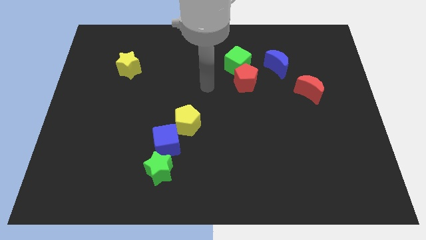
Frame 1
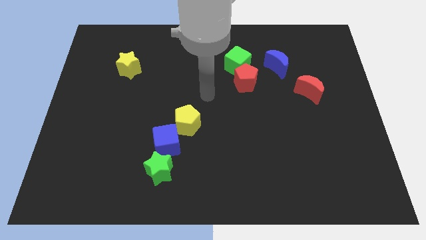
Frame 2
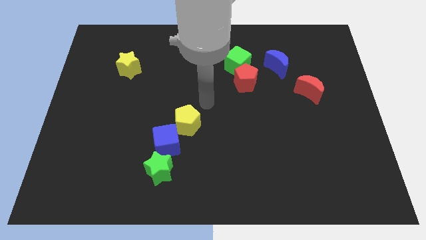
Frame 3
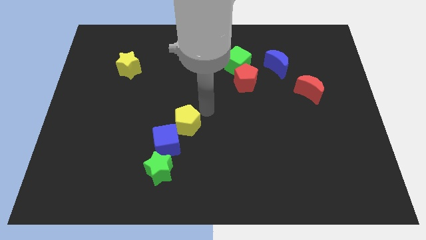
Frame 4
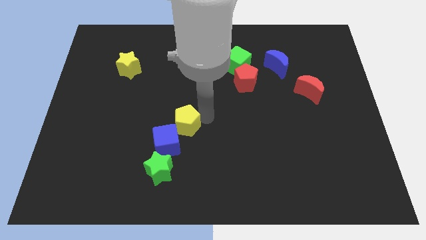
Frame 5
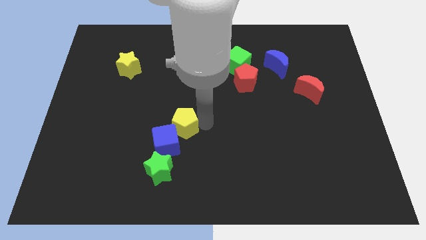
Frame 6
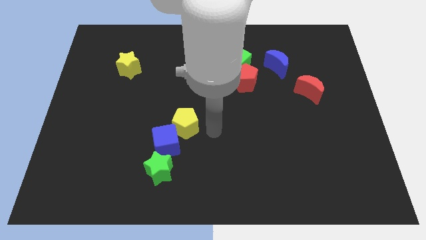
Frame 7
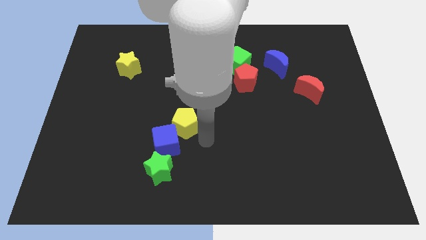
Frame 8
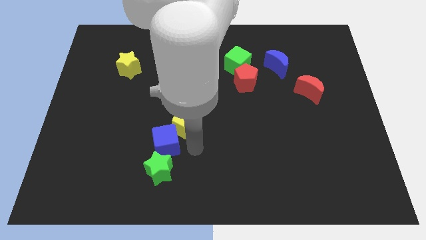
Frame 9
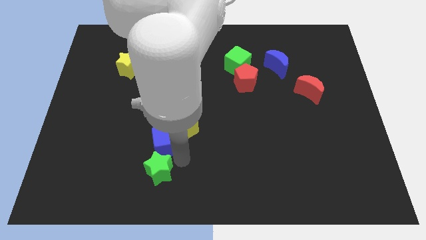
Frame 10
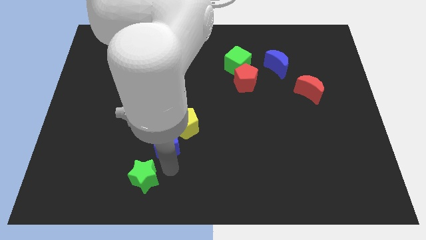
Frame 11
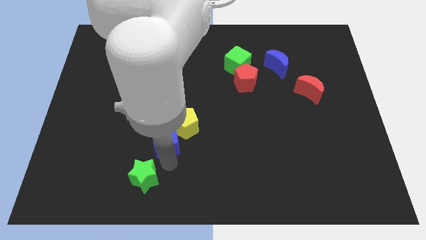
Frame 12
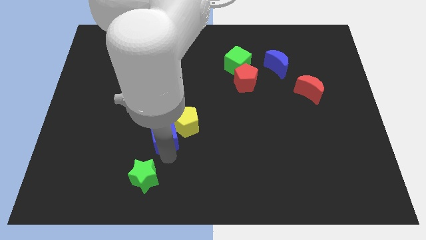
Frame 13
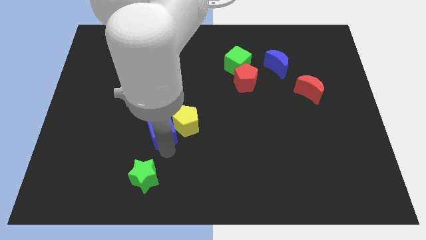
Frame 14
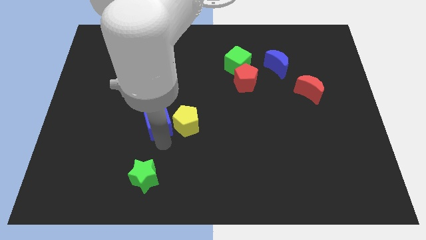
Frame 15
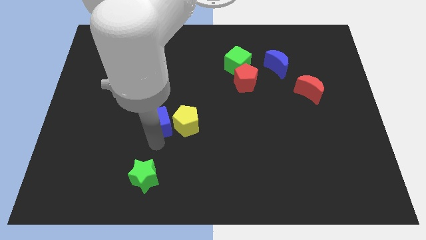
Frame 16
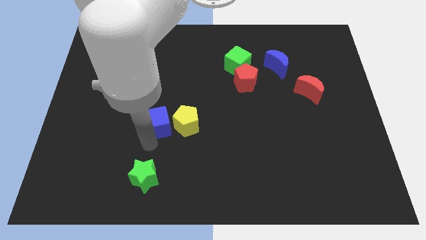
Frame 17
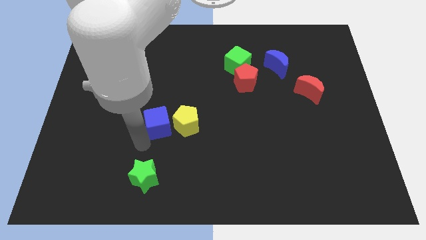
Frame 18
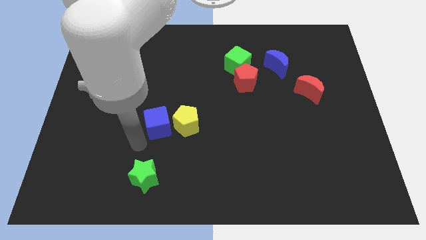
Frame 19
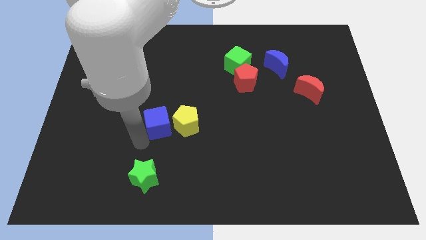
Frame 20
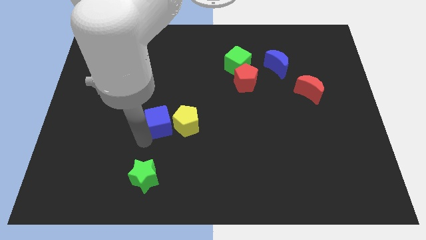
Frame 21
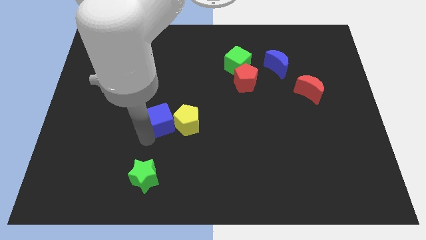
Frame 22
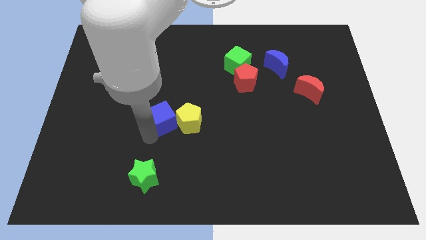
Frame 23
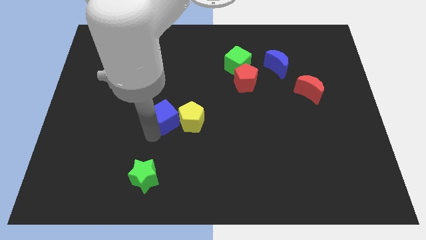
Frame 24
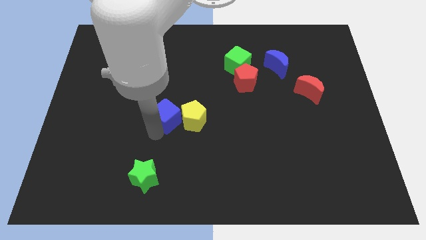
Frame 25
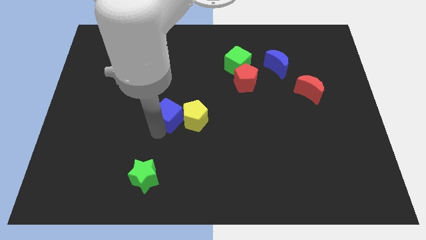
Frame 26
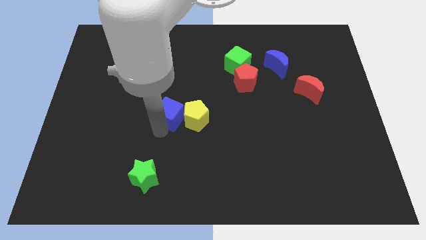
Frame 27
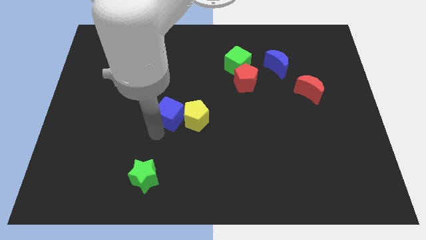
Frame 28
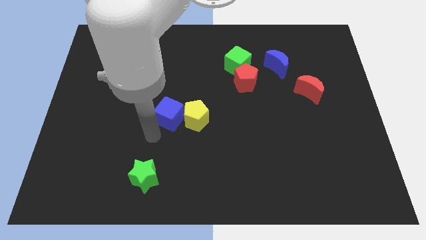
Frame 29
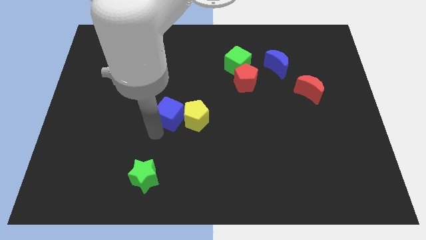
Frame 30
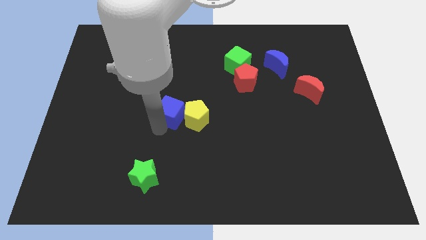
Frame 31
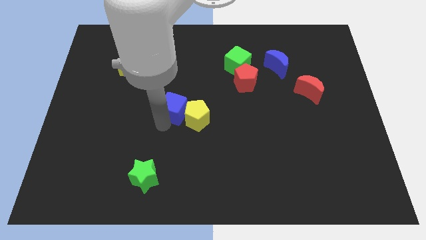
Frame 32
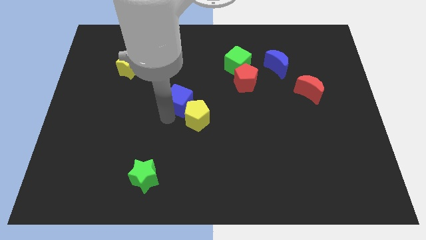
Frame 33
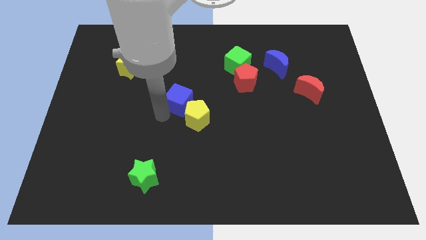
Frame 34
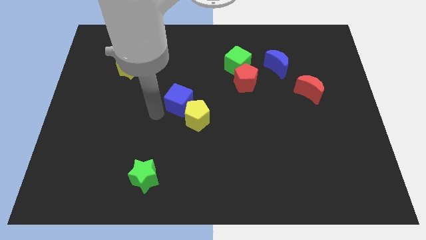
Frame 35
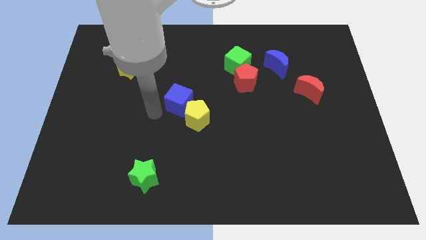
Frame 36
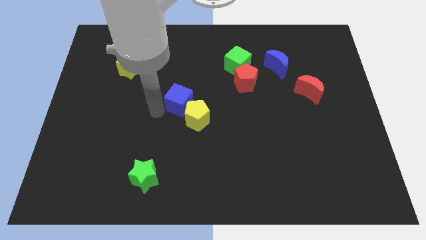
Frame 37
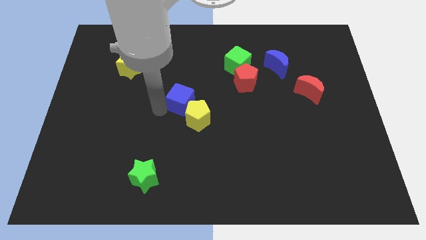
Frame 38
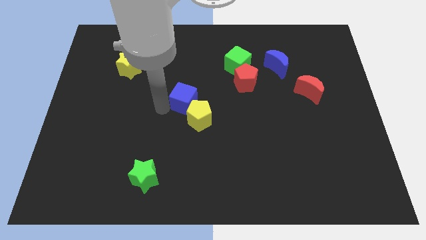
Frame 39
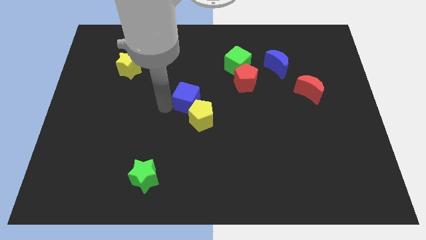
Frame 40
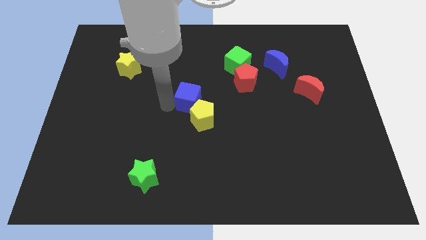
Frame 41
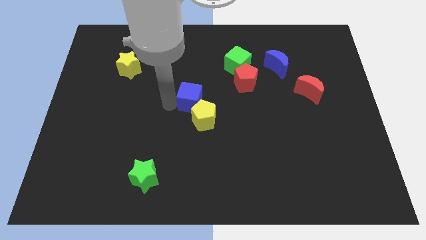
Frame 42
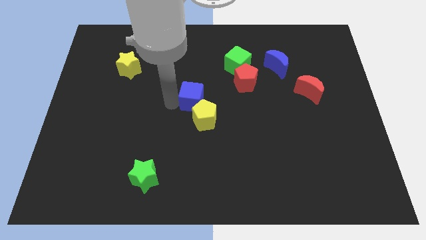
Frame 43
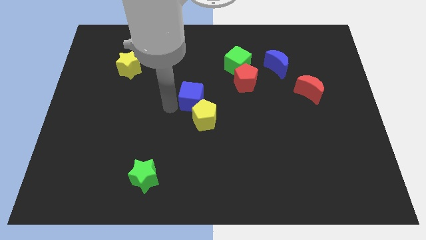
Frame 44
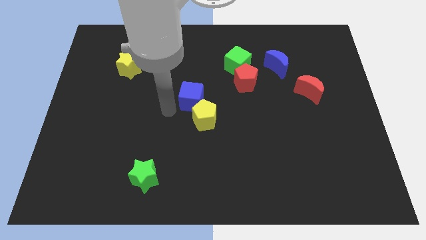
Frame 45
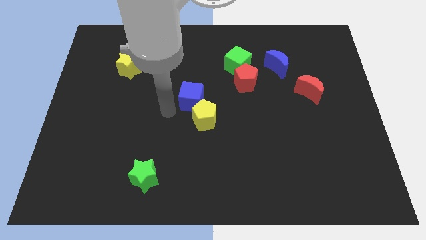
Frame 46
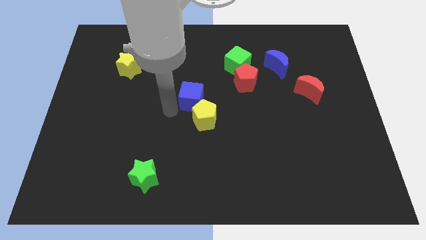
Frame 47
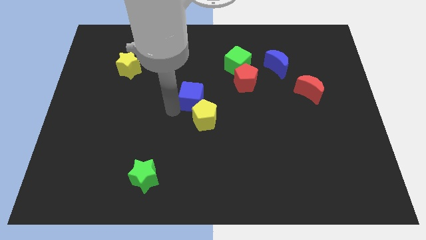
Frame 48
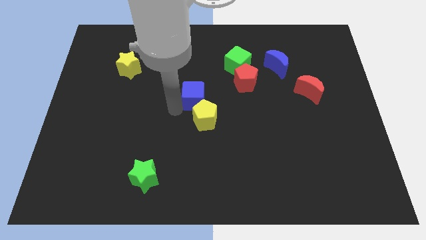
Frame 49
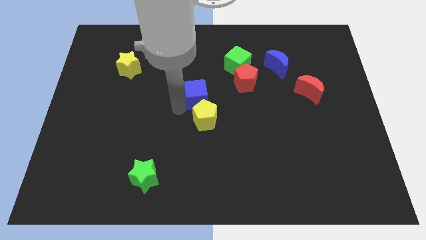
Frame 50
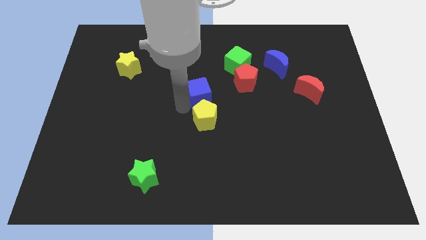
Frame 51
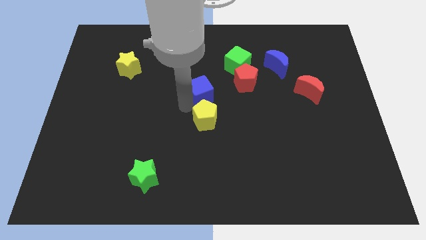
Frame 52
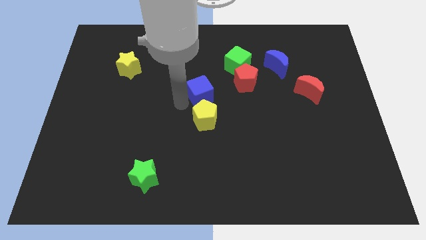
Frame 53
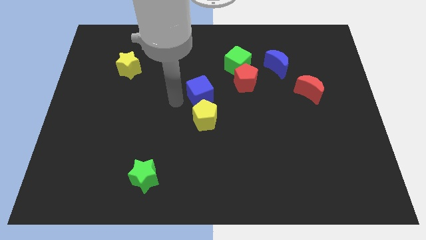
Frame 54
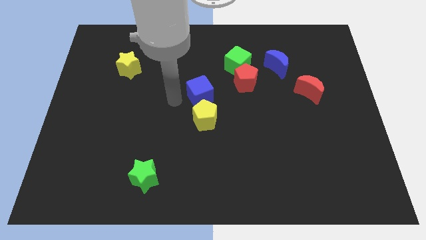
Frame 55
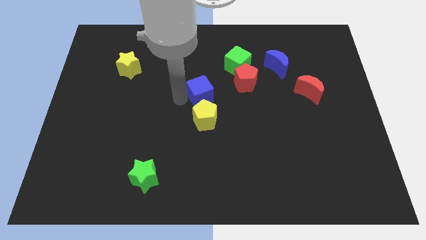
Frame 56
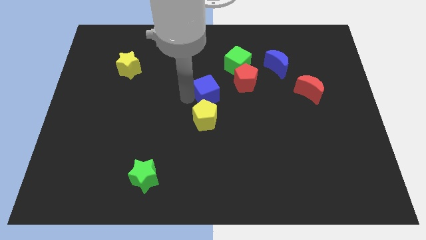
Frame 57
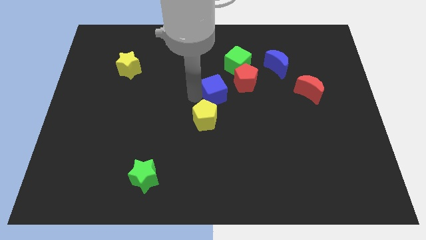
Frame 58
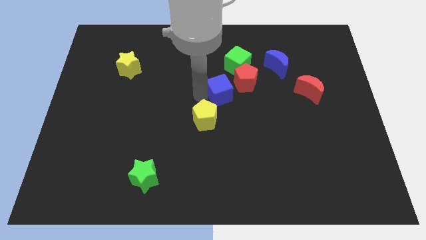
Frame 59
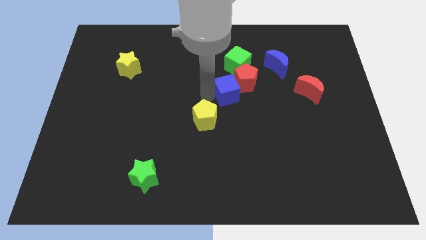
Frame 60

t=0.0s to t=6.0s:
put the blue cube to the red pentagon
